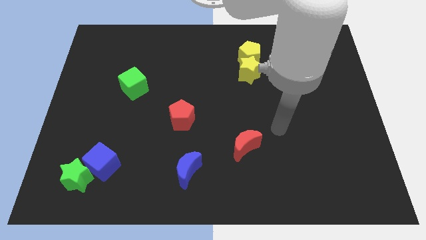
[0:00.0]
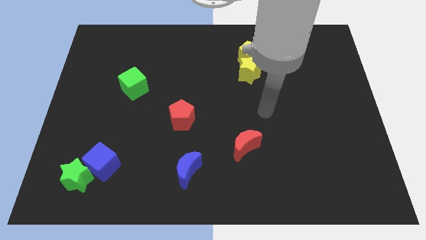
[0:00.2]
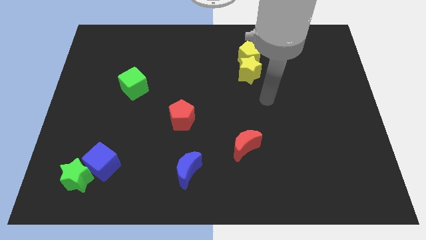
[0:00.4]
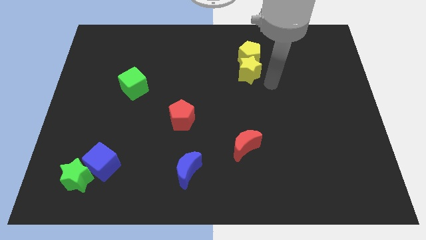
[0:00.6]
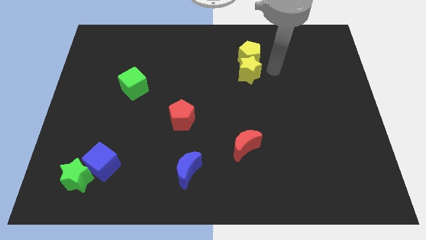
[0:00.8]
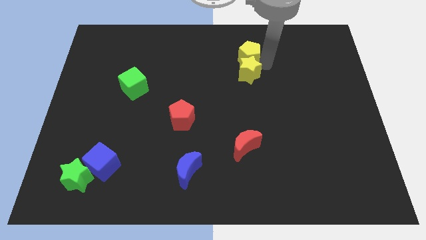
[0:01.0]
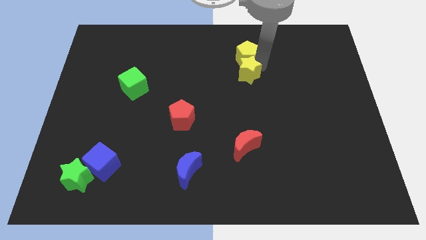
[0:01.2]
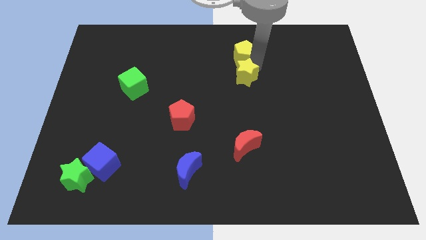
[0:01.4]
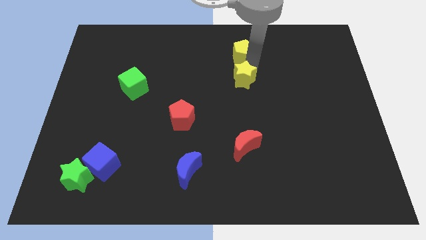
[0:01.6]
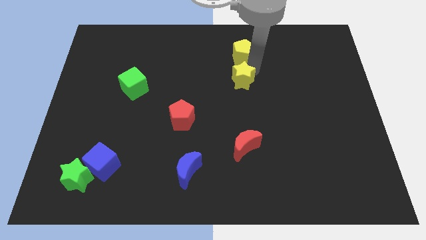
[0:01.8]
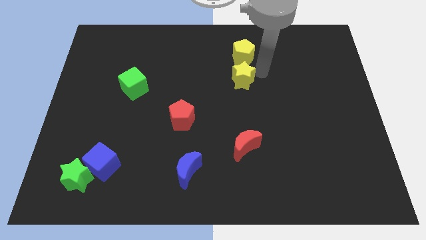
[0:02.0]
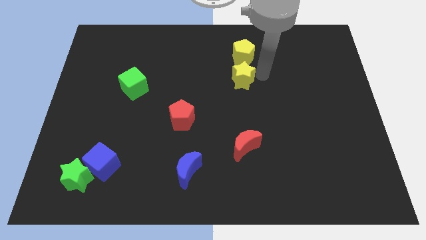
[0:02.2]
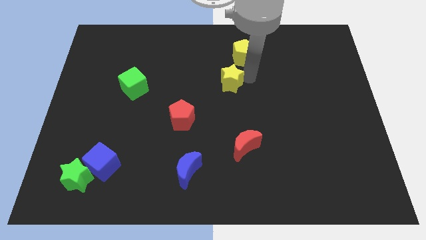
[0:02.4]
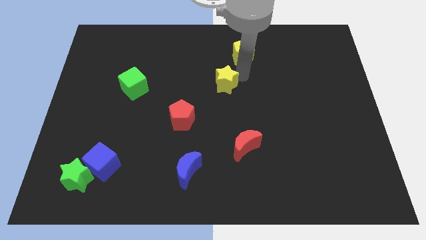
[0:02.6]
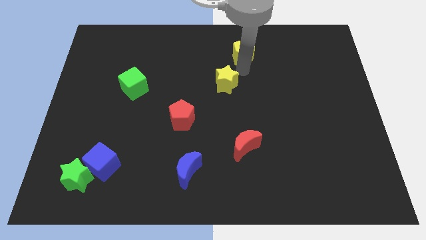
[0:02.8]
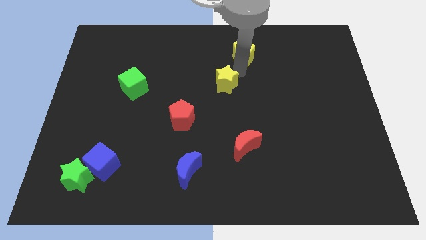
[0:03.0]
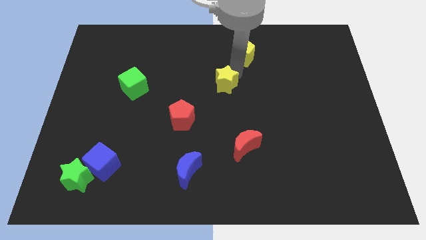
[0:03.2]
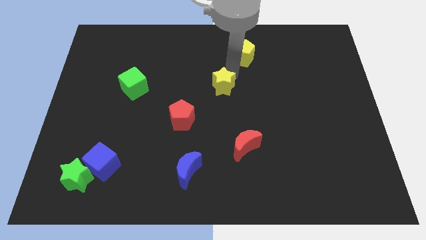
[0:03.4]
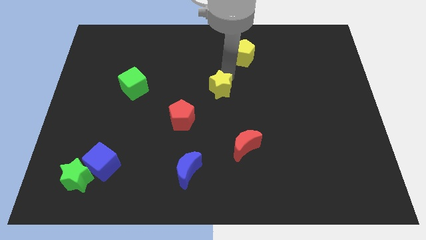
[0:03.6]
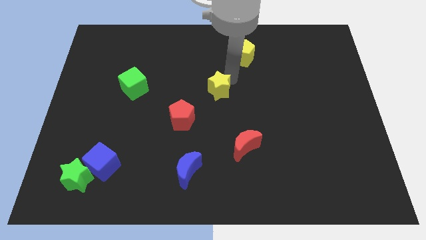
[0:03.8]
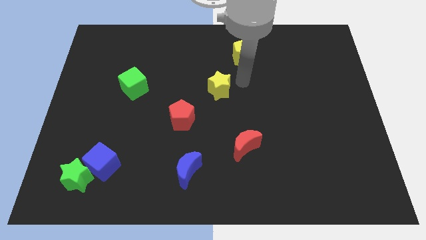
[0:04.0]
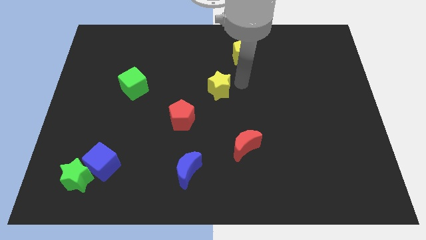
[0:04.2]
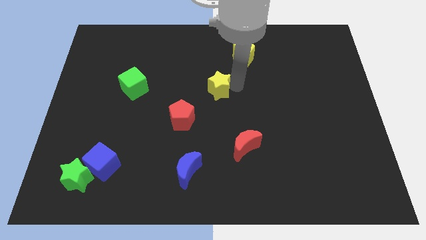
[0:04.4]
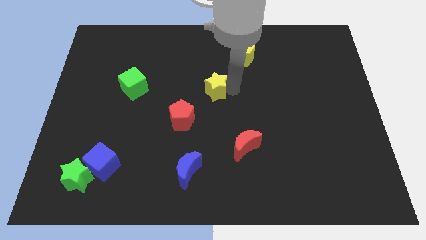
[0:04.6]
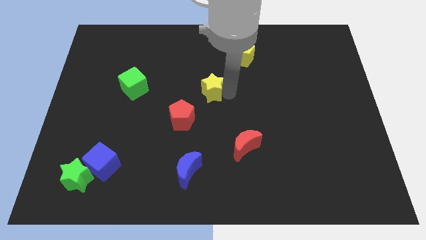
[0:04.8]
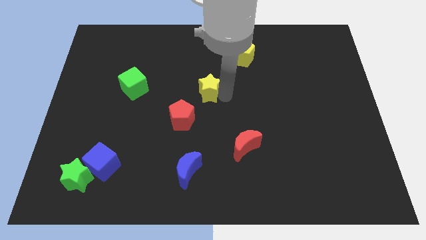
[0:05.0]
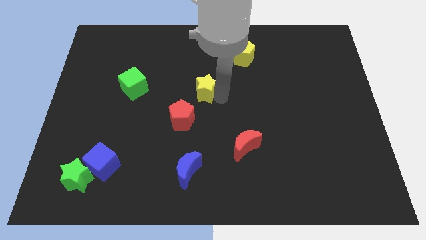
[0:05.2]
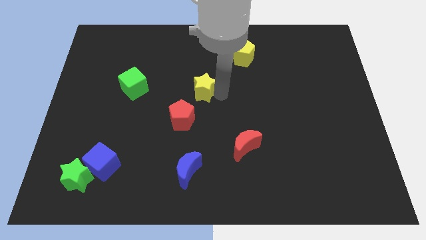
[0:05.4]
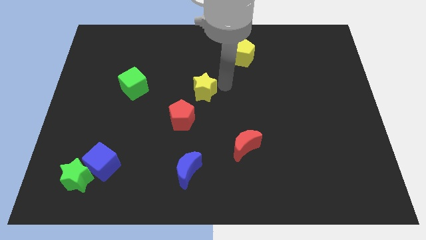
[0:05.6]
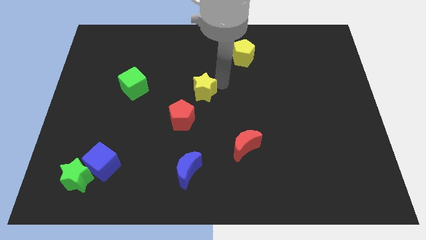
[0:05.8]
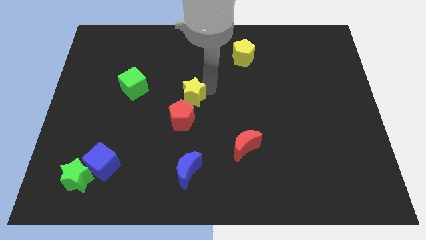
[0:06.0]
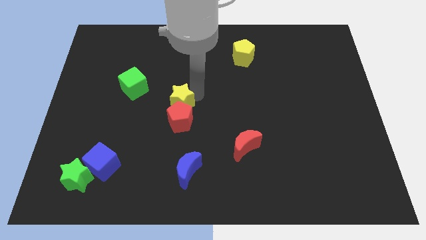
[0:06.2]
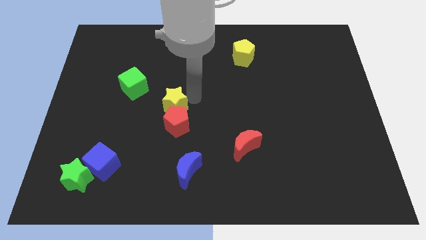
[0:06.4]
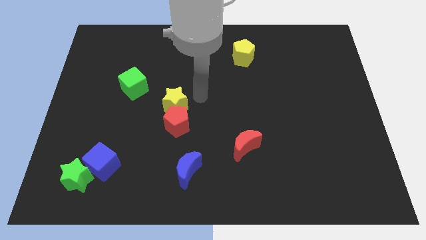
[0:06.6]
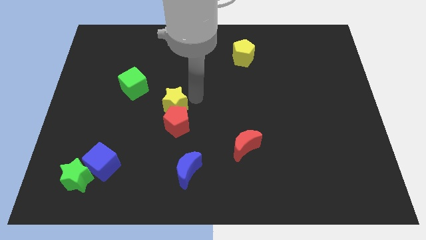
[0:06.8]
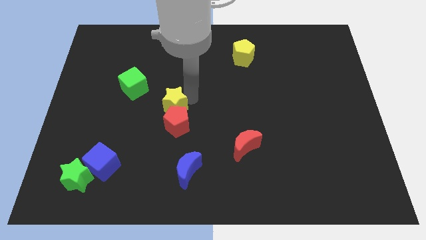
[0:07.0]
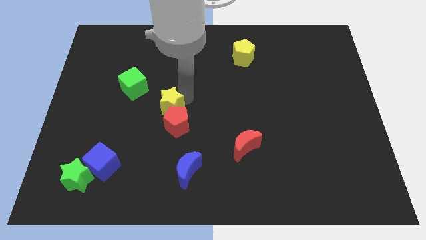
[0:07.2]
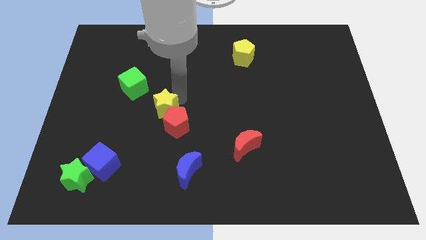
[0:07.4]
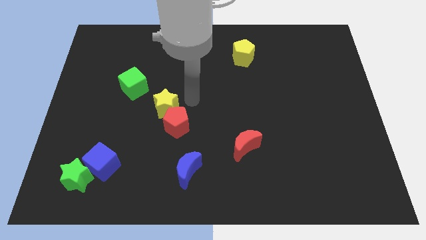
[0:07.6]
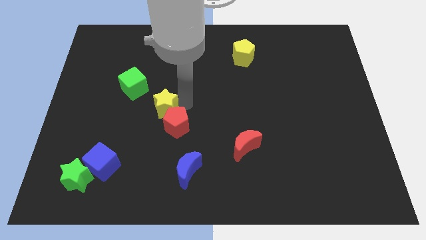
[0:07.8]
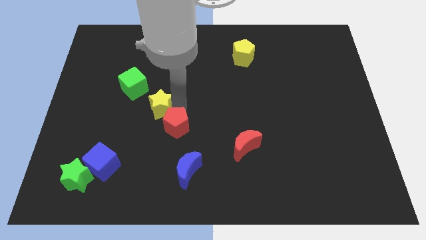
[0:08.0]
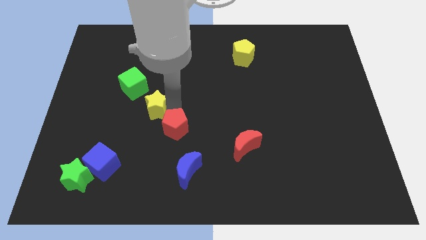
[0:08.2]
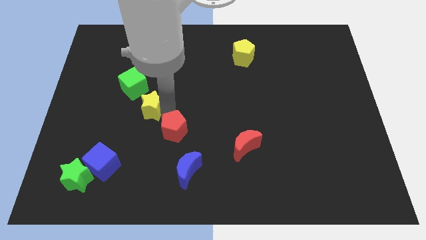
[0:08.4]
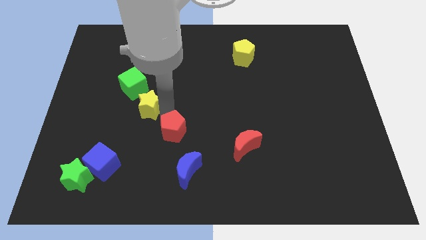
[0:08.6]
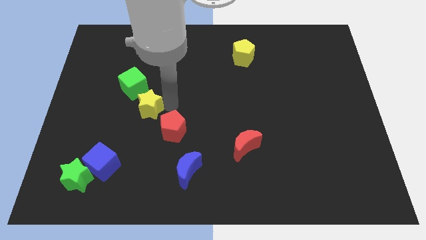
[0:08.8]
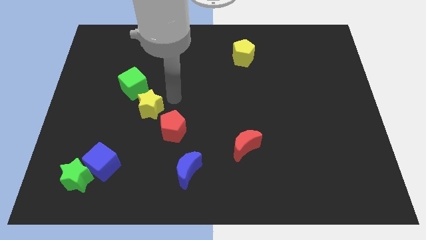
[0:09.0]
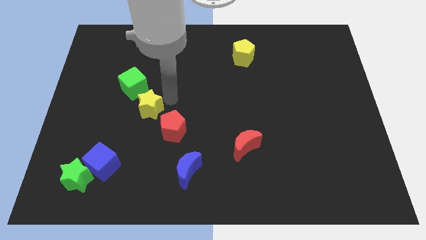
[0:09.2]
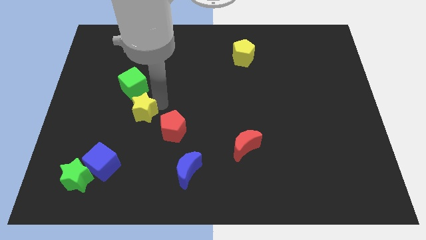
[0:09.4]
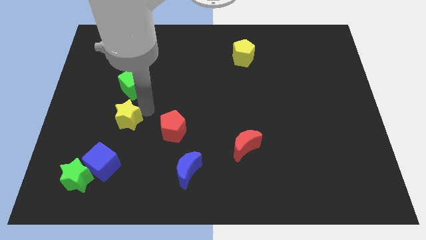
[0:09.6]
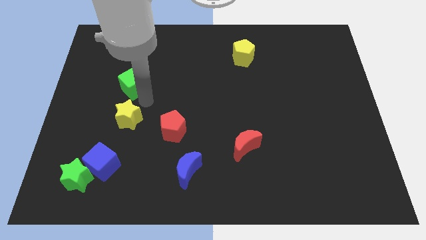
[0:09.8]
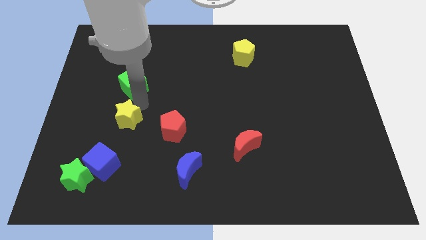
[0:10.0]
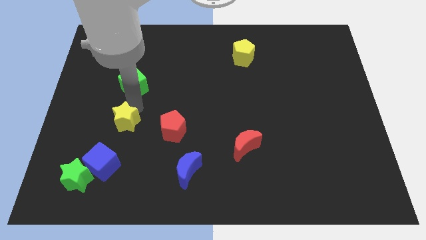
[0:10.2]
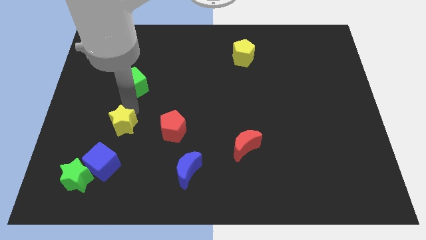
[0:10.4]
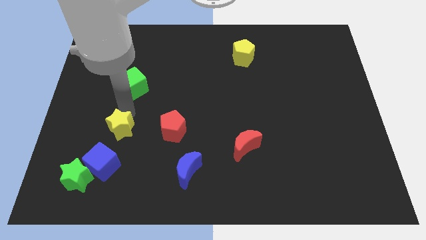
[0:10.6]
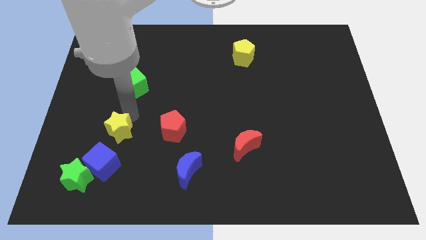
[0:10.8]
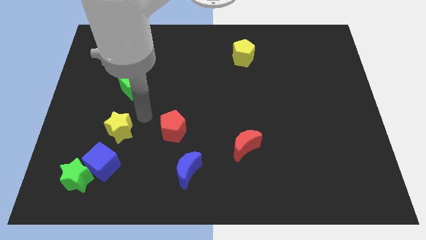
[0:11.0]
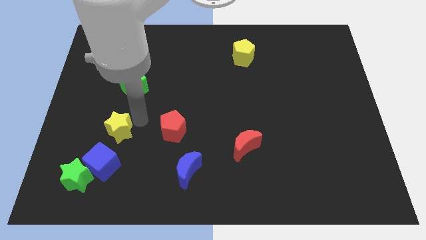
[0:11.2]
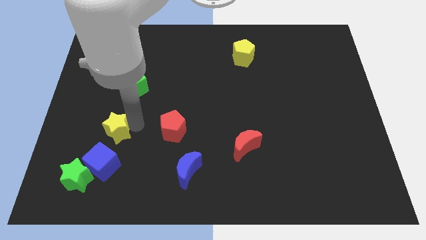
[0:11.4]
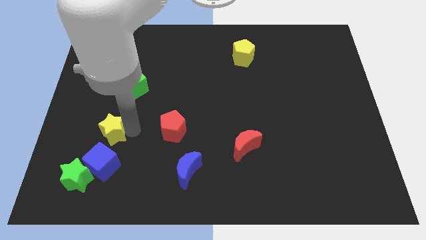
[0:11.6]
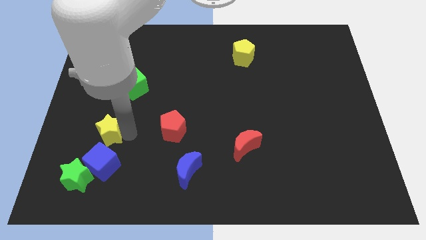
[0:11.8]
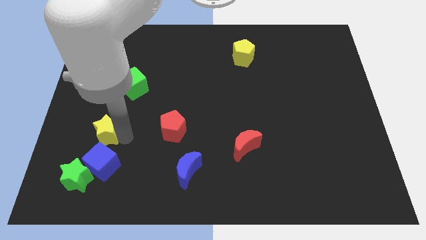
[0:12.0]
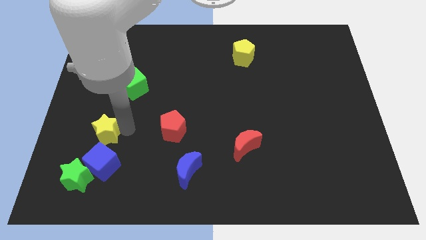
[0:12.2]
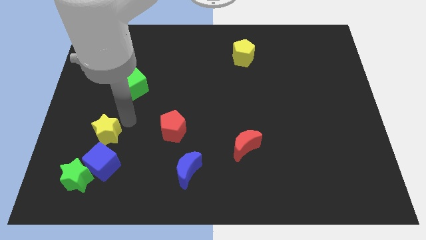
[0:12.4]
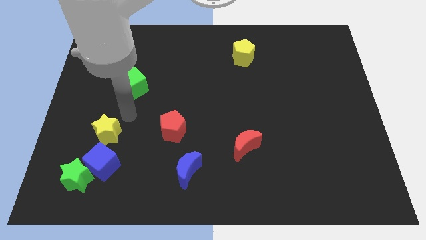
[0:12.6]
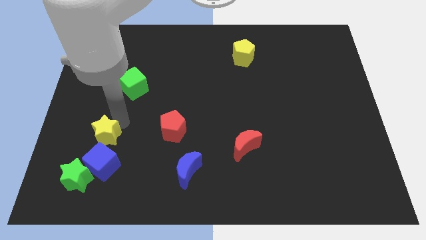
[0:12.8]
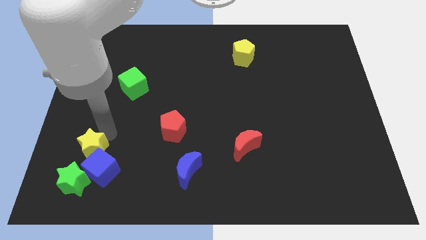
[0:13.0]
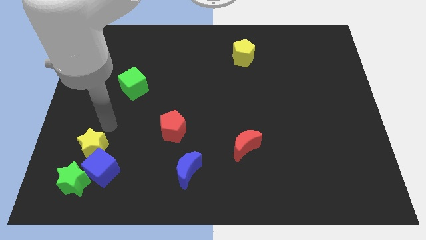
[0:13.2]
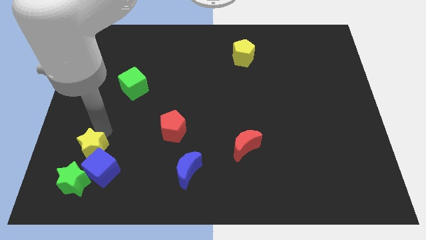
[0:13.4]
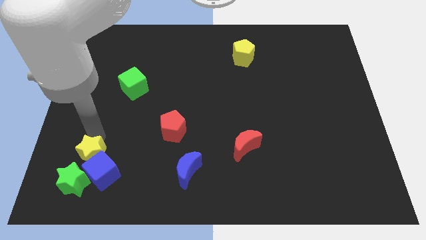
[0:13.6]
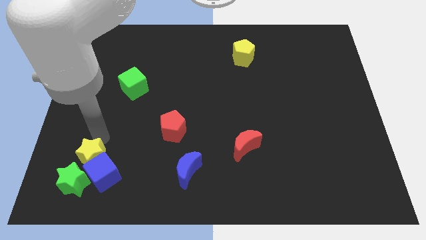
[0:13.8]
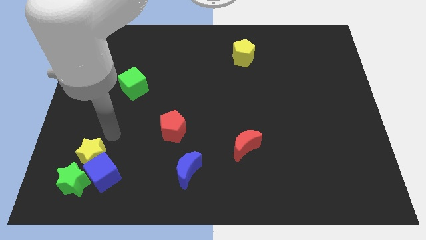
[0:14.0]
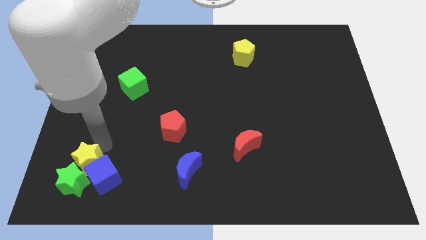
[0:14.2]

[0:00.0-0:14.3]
move the yellow star next to the green star

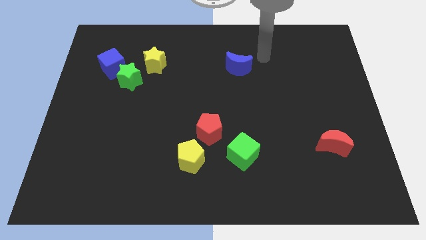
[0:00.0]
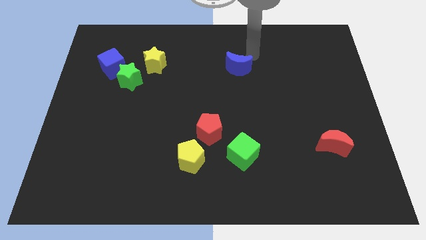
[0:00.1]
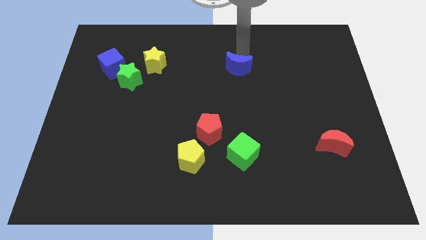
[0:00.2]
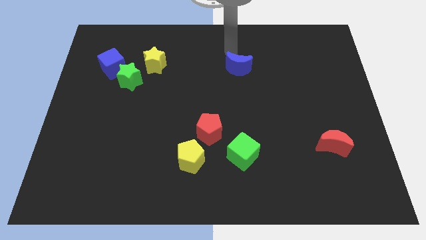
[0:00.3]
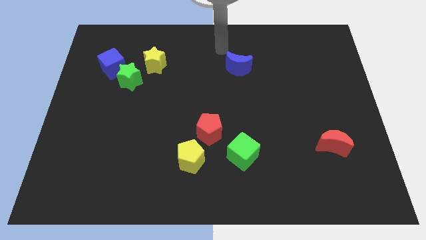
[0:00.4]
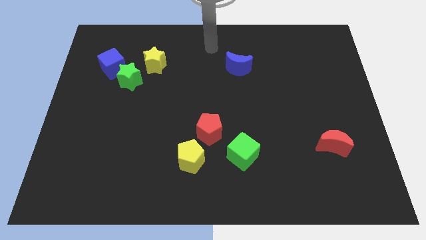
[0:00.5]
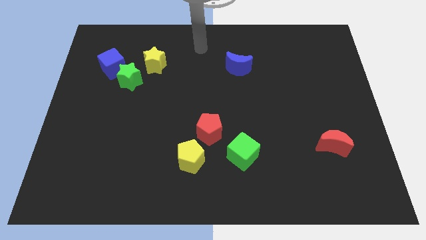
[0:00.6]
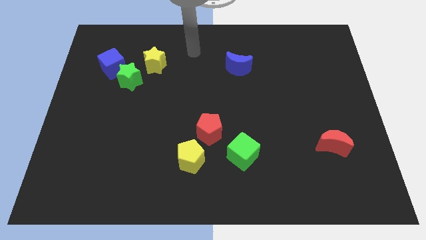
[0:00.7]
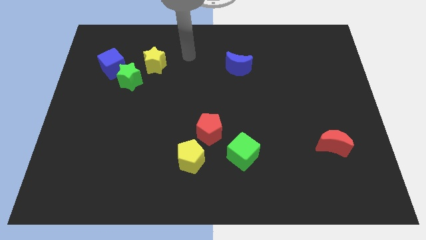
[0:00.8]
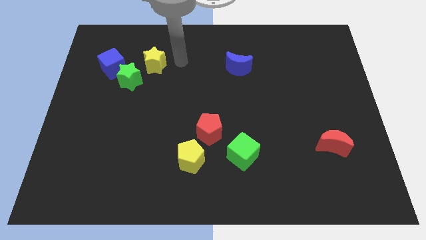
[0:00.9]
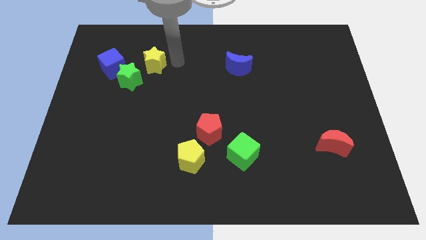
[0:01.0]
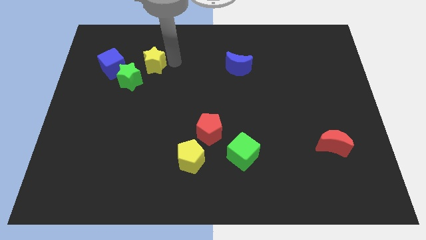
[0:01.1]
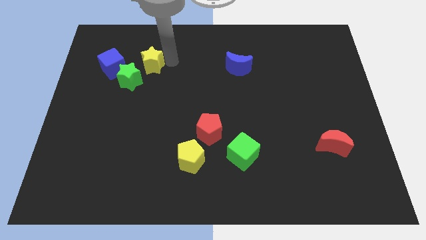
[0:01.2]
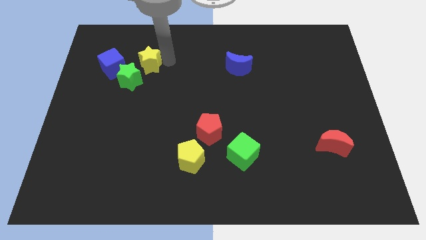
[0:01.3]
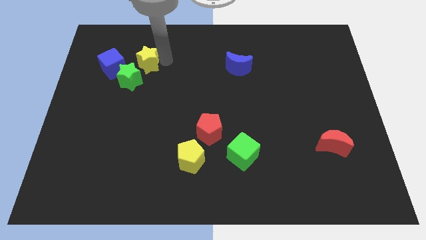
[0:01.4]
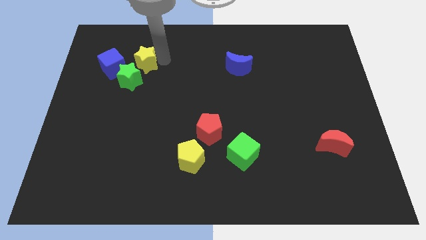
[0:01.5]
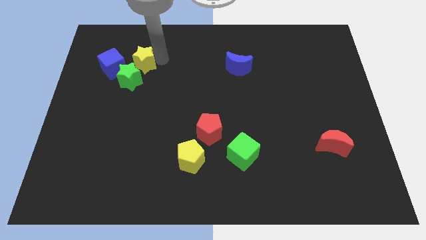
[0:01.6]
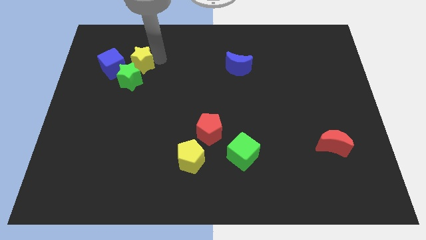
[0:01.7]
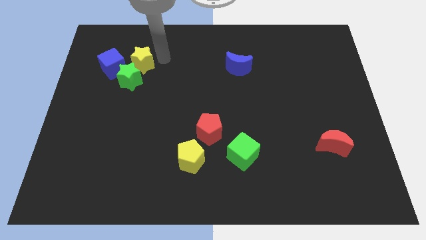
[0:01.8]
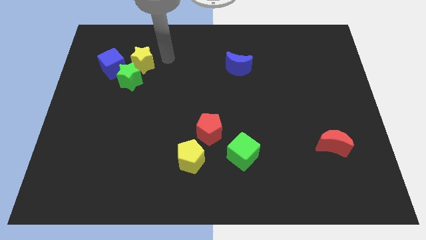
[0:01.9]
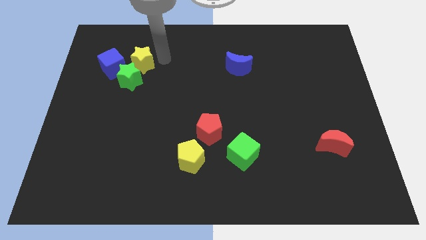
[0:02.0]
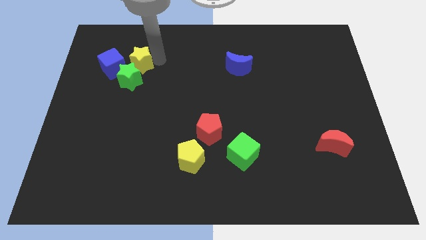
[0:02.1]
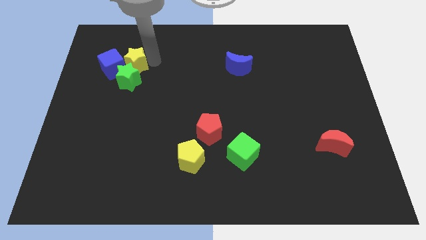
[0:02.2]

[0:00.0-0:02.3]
put the yellow star close to the blue cube
